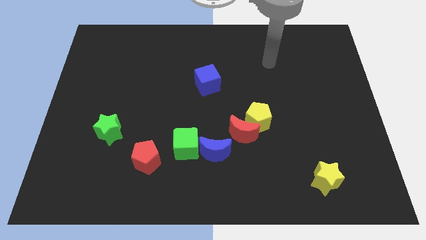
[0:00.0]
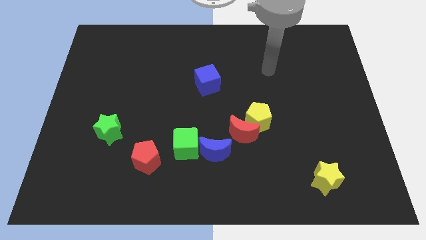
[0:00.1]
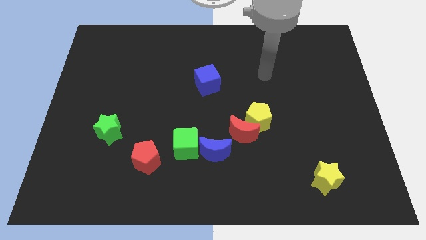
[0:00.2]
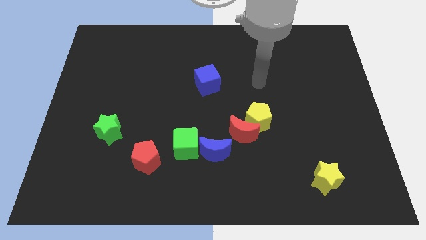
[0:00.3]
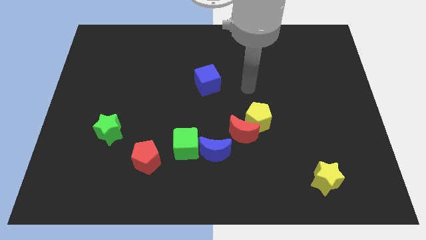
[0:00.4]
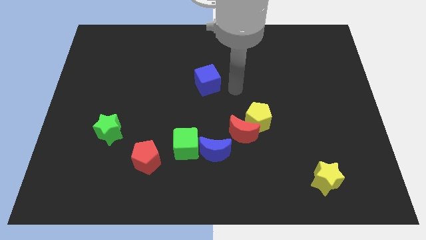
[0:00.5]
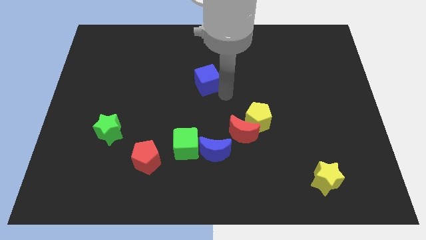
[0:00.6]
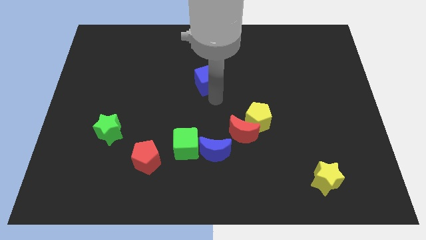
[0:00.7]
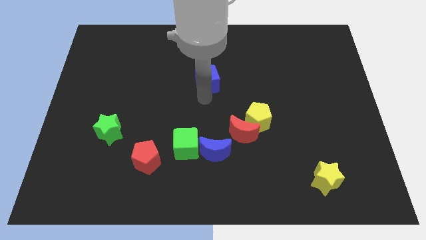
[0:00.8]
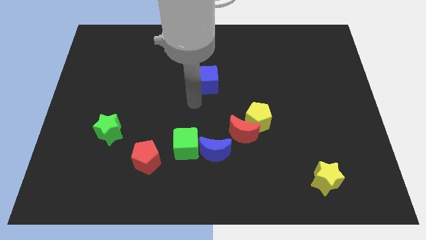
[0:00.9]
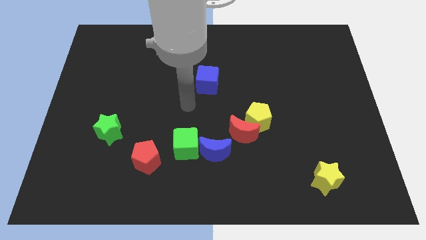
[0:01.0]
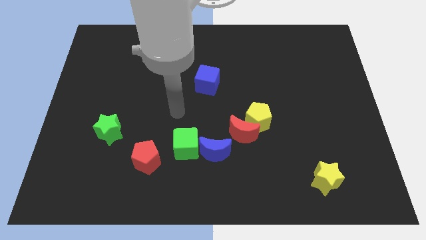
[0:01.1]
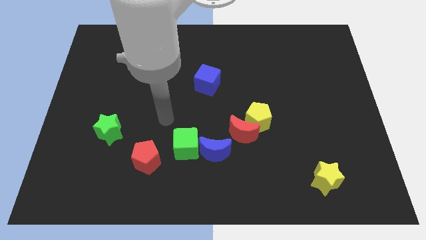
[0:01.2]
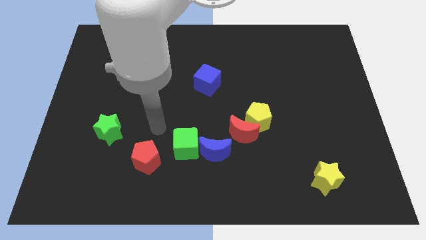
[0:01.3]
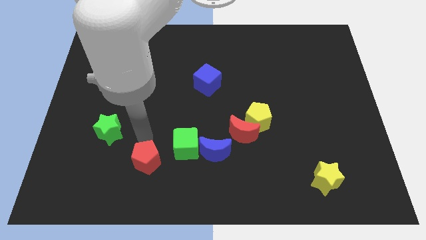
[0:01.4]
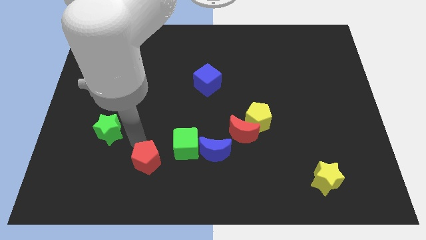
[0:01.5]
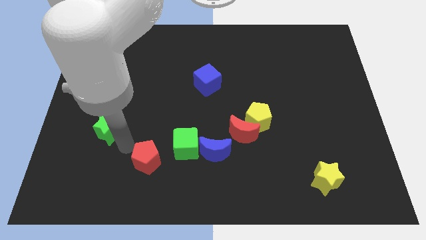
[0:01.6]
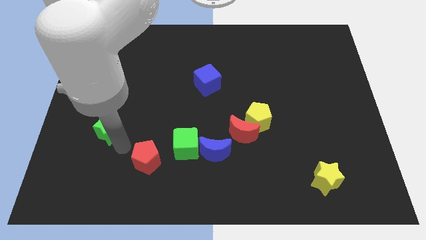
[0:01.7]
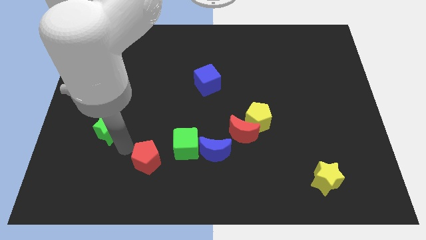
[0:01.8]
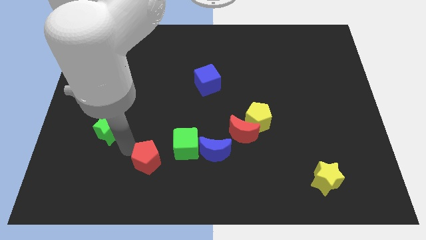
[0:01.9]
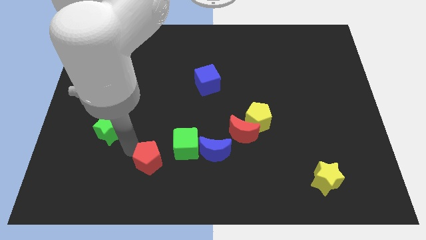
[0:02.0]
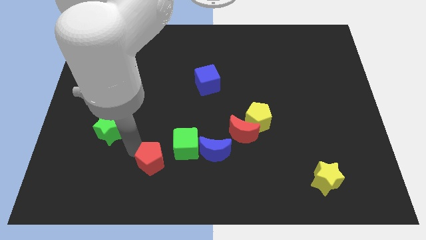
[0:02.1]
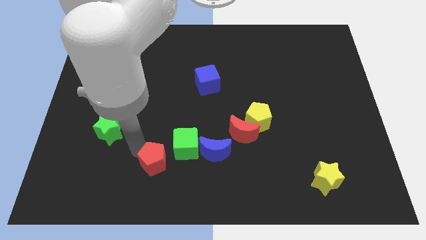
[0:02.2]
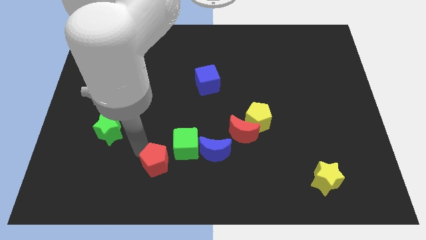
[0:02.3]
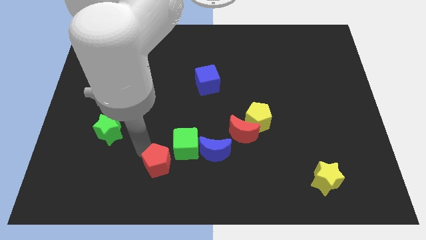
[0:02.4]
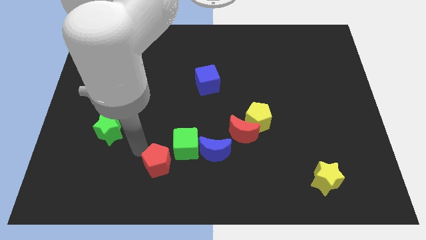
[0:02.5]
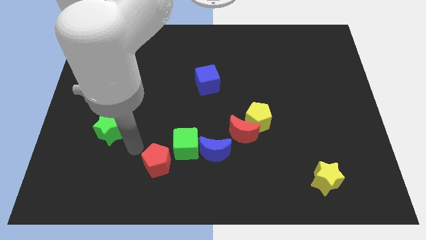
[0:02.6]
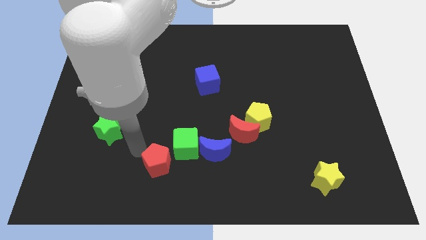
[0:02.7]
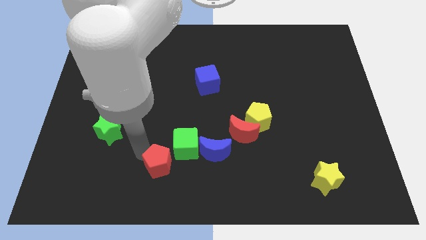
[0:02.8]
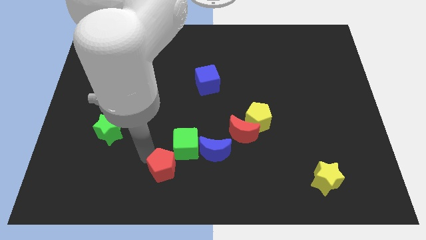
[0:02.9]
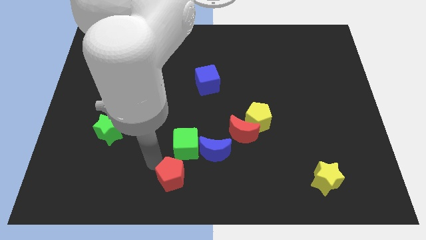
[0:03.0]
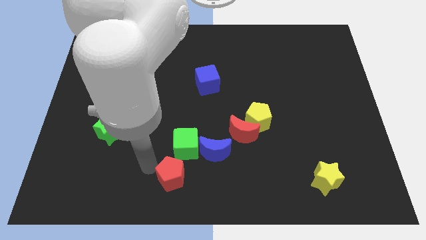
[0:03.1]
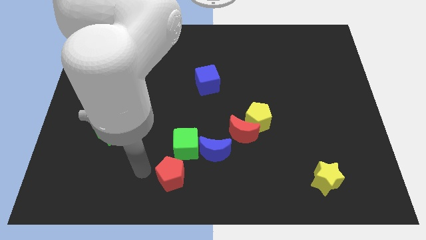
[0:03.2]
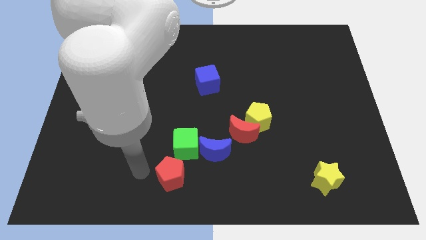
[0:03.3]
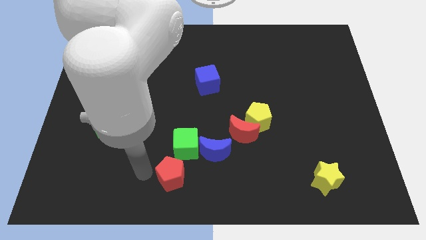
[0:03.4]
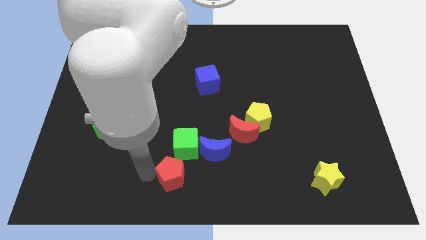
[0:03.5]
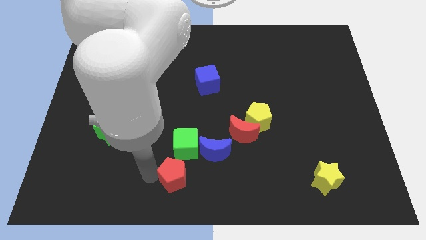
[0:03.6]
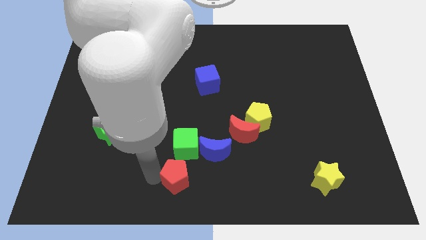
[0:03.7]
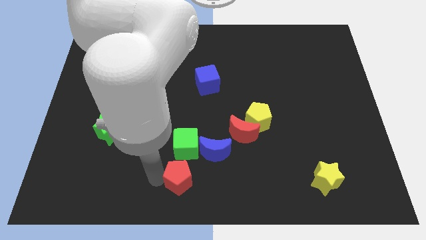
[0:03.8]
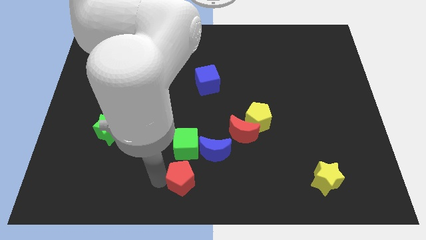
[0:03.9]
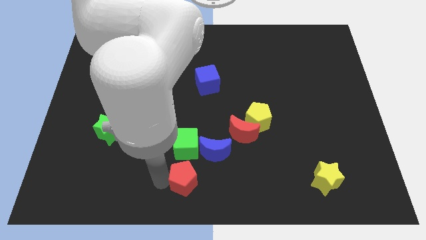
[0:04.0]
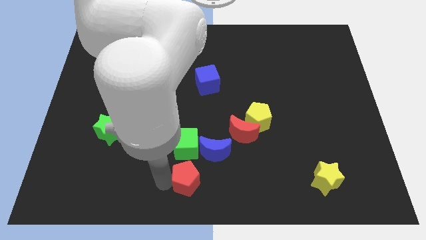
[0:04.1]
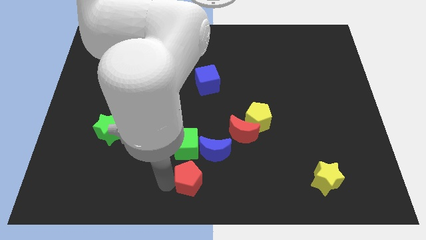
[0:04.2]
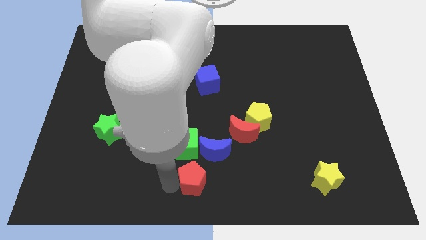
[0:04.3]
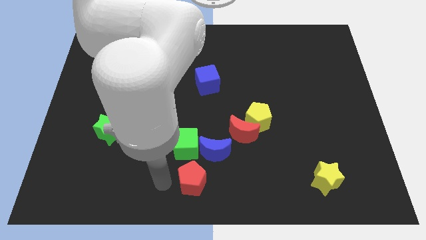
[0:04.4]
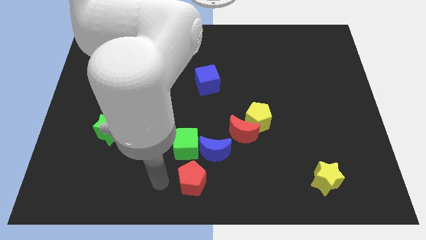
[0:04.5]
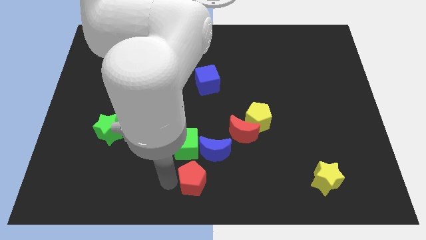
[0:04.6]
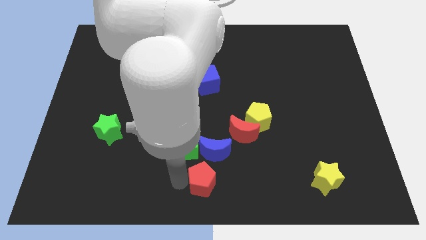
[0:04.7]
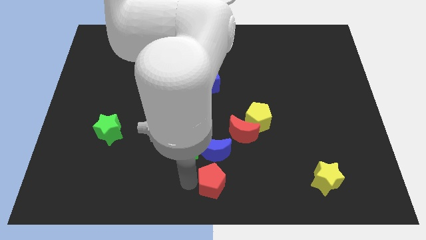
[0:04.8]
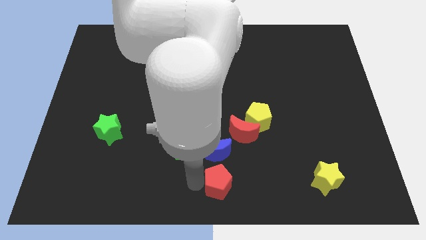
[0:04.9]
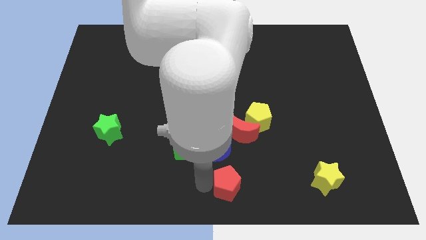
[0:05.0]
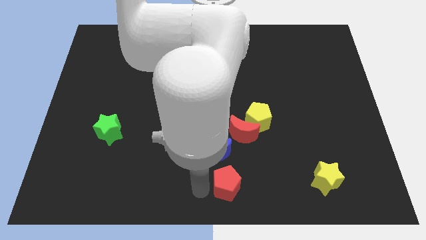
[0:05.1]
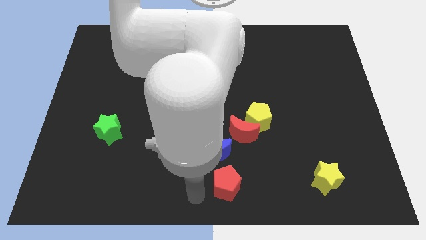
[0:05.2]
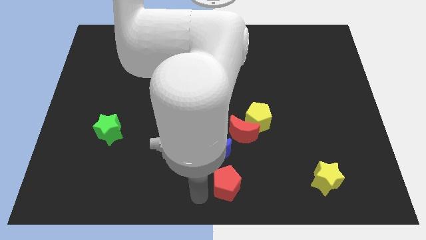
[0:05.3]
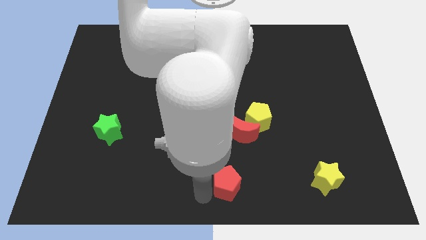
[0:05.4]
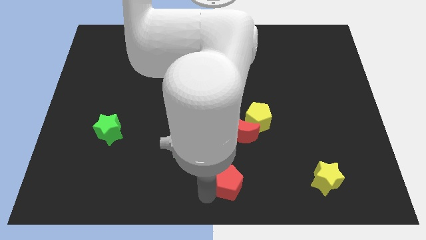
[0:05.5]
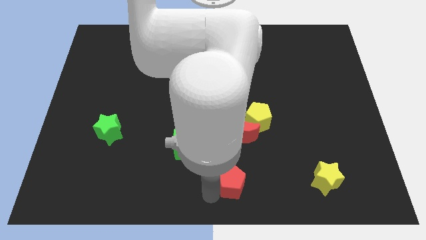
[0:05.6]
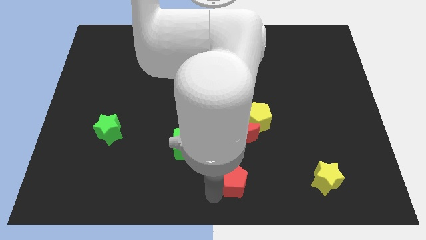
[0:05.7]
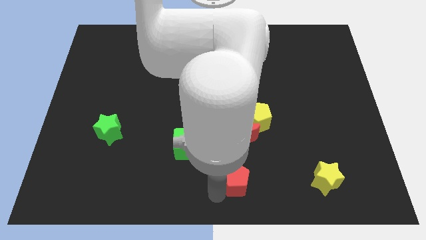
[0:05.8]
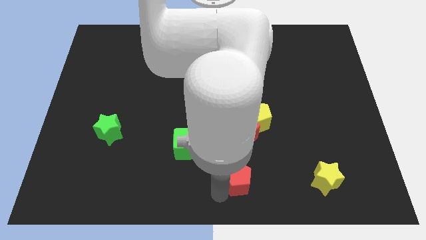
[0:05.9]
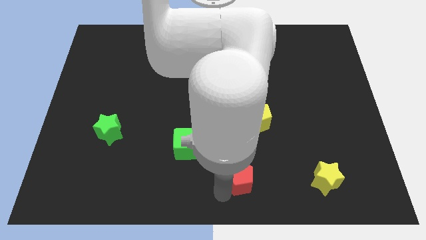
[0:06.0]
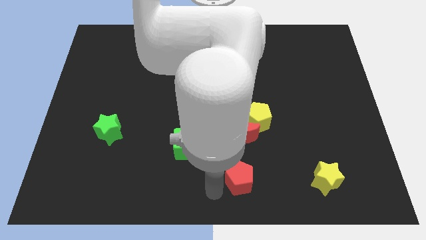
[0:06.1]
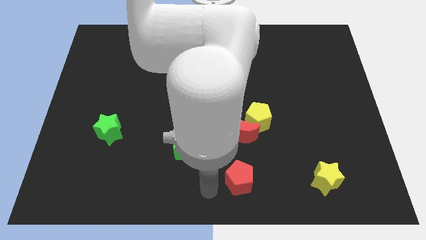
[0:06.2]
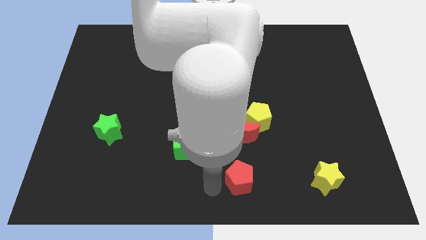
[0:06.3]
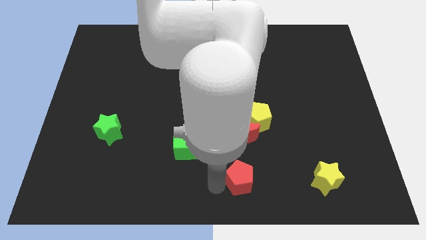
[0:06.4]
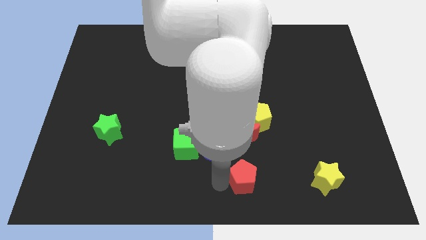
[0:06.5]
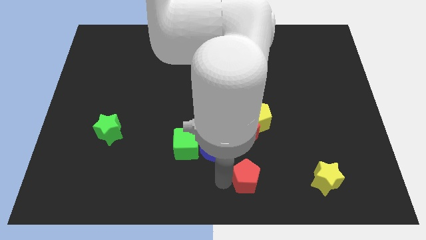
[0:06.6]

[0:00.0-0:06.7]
push the red pentagon right

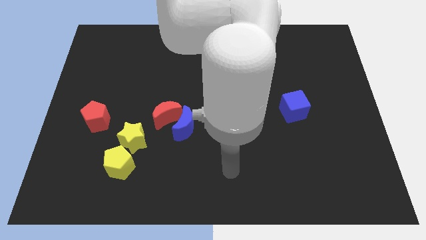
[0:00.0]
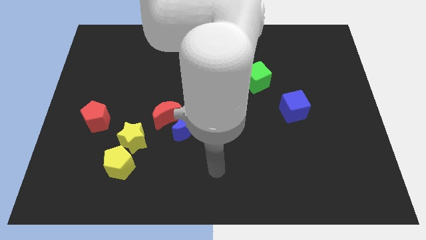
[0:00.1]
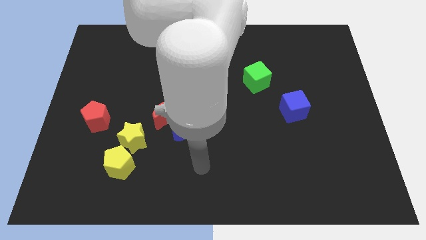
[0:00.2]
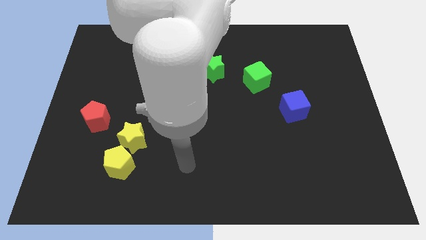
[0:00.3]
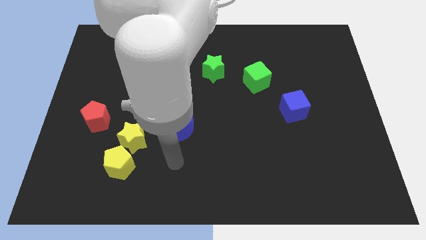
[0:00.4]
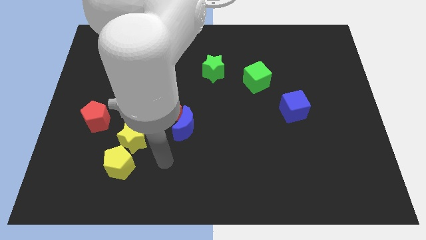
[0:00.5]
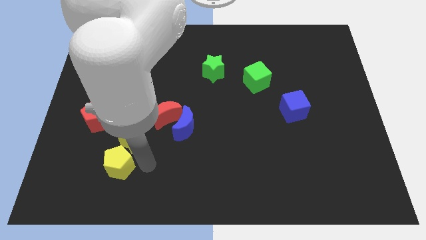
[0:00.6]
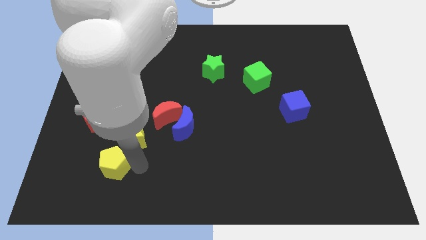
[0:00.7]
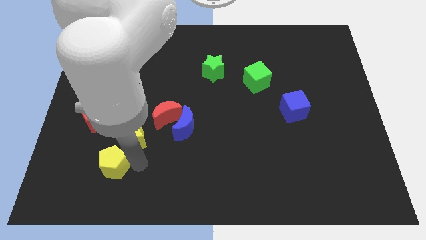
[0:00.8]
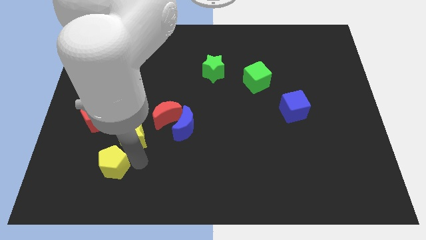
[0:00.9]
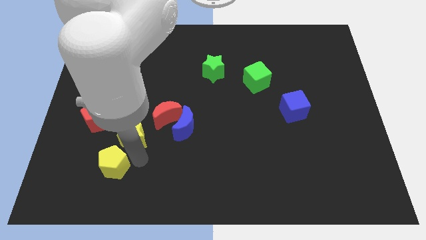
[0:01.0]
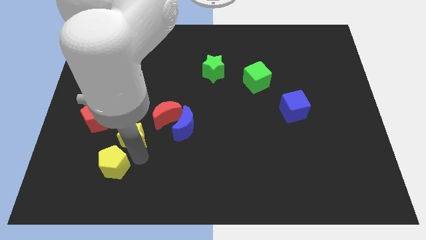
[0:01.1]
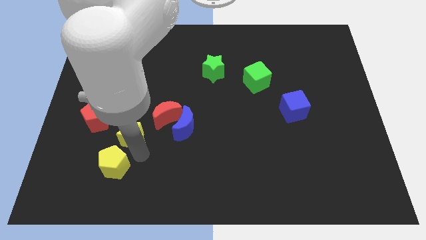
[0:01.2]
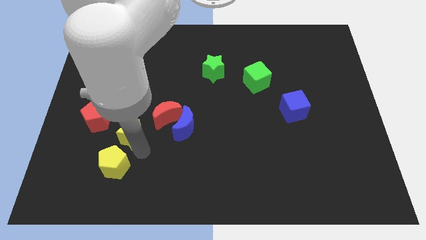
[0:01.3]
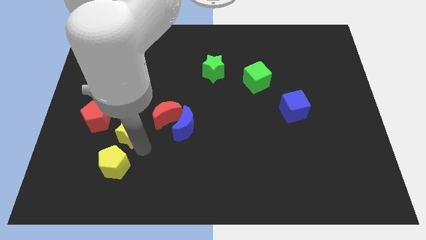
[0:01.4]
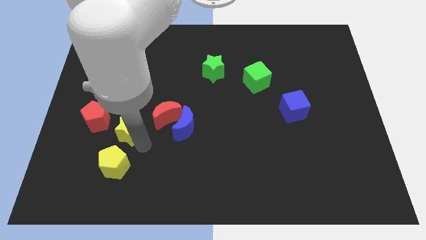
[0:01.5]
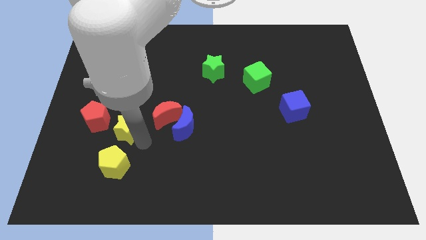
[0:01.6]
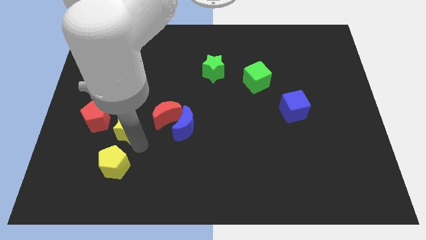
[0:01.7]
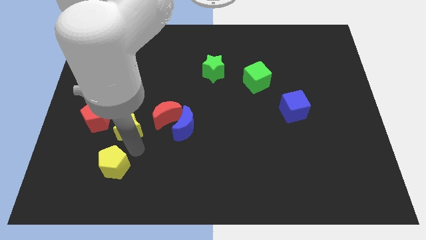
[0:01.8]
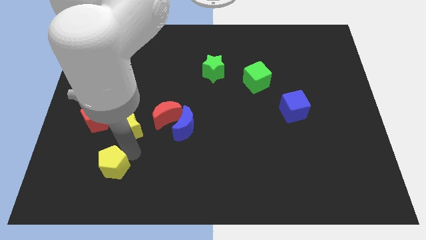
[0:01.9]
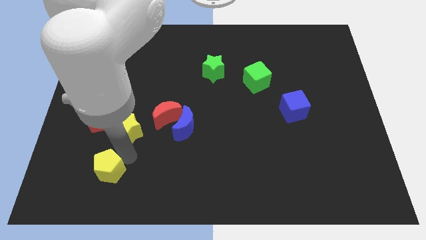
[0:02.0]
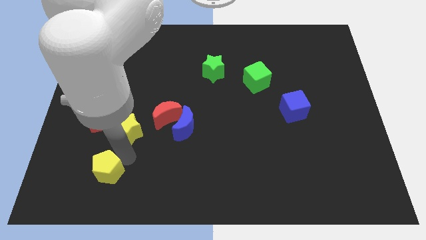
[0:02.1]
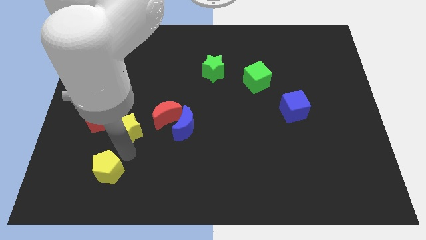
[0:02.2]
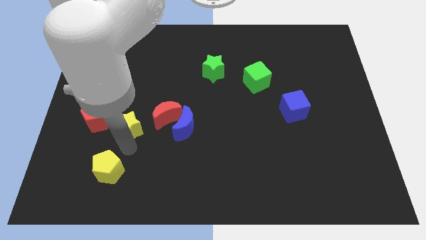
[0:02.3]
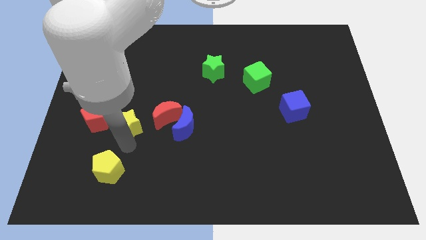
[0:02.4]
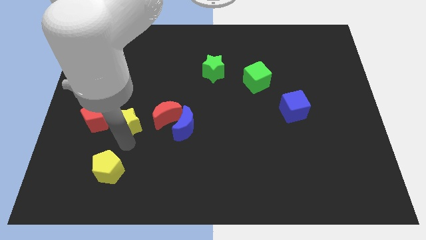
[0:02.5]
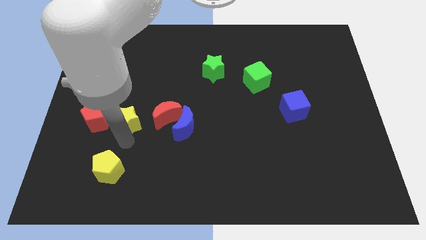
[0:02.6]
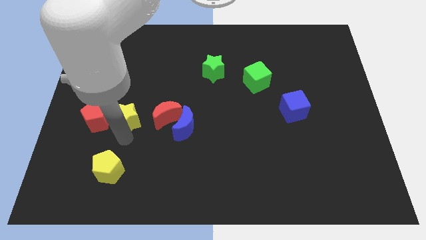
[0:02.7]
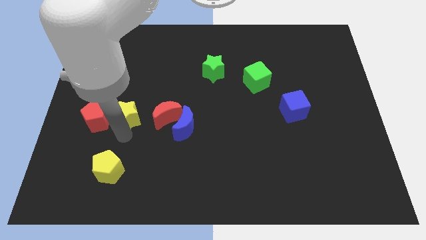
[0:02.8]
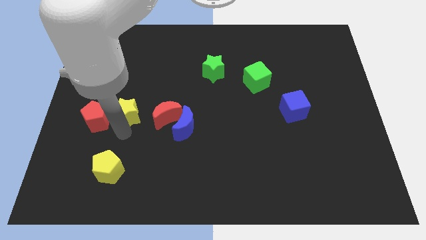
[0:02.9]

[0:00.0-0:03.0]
slightly push the yellow star upwards
